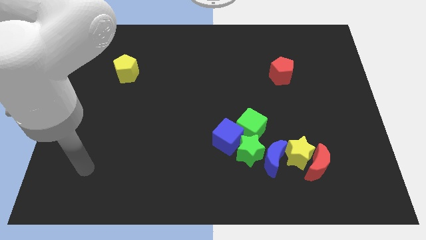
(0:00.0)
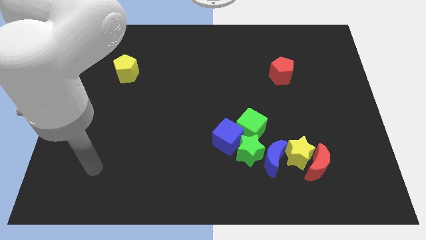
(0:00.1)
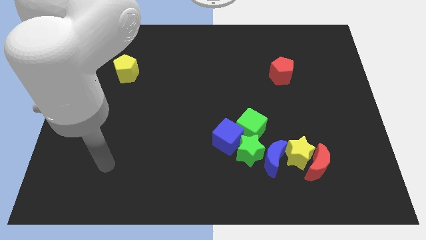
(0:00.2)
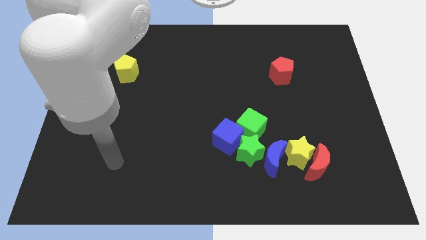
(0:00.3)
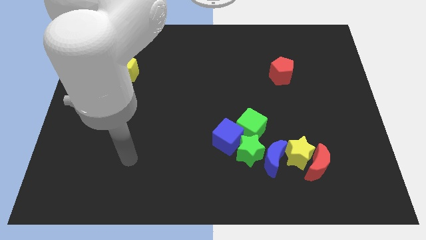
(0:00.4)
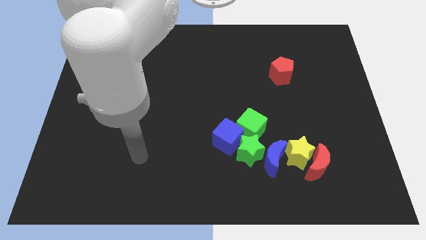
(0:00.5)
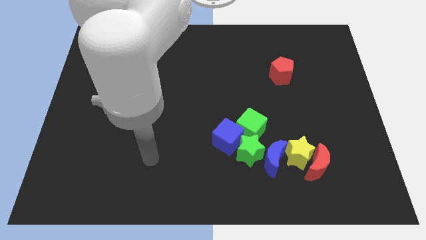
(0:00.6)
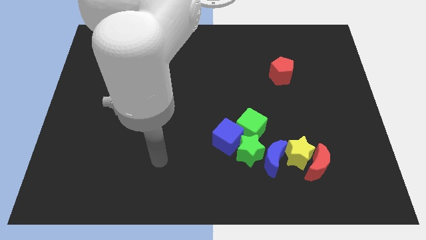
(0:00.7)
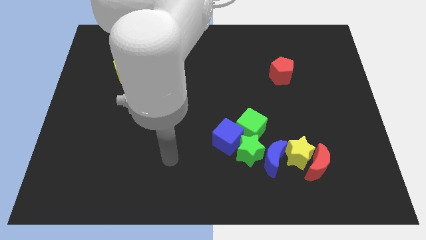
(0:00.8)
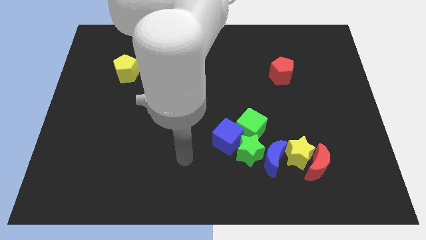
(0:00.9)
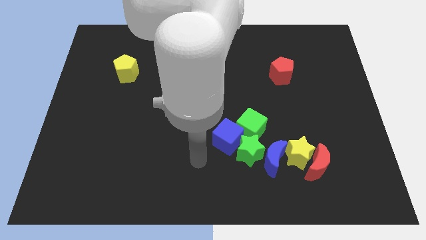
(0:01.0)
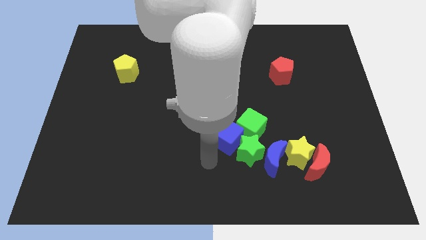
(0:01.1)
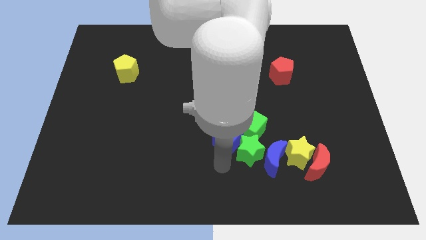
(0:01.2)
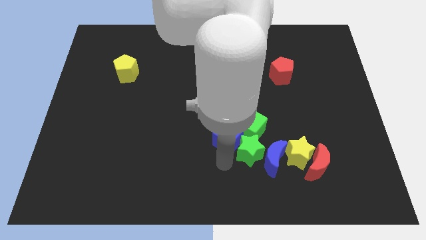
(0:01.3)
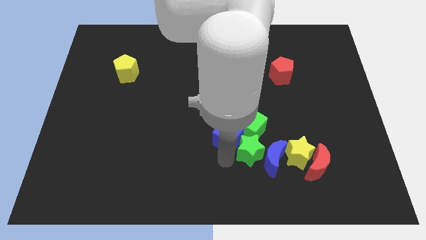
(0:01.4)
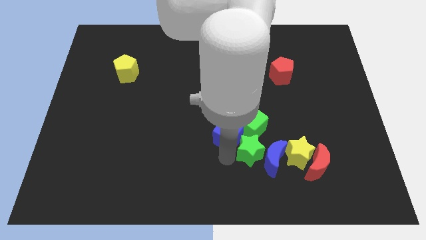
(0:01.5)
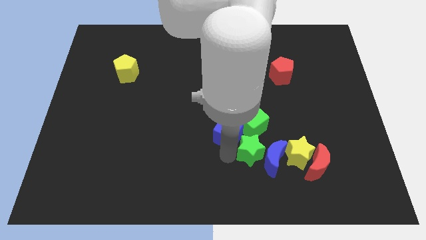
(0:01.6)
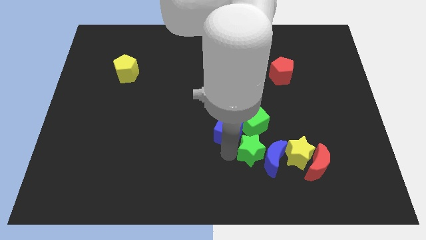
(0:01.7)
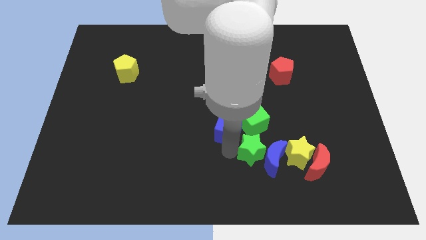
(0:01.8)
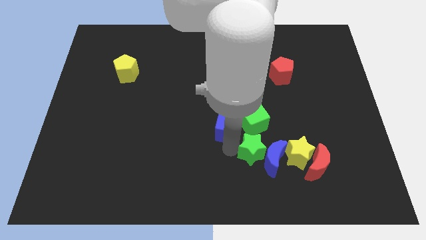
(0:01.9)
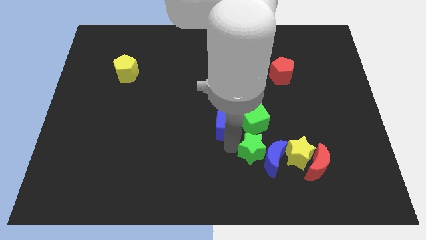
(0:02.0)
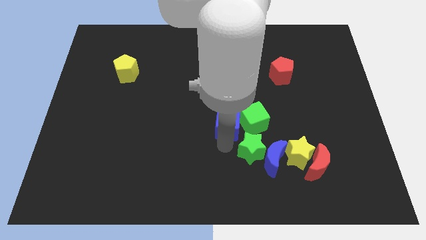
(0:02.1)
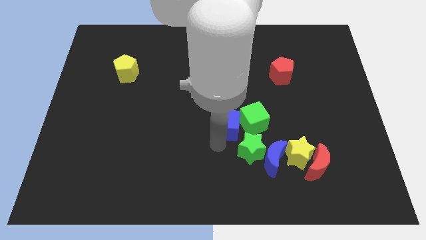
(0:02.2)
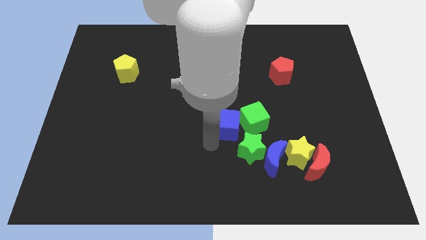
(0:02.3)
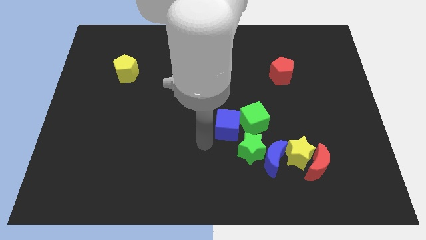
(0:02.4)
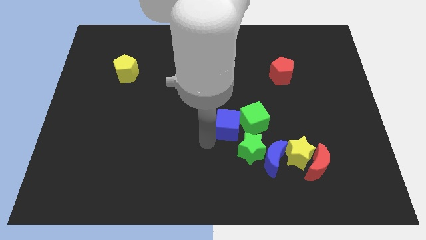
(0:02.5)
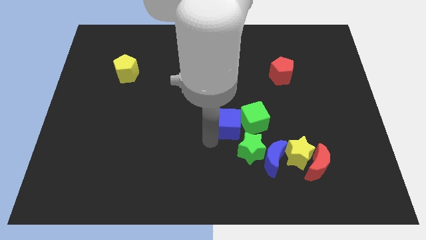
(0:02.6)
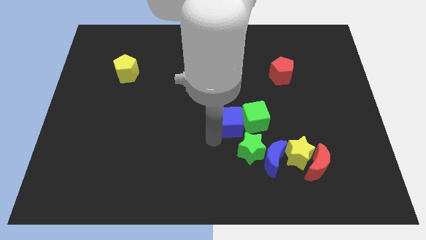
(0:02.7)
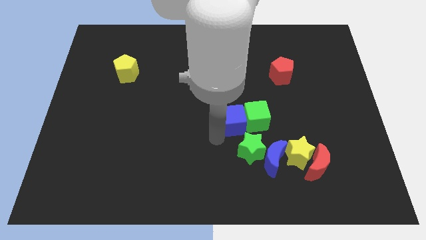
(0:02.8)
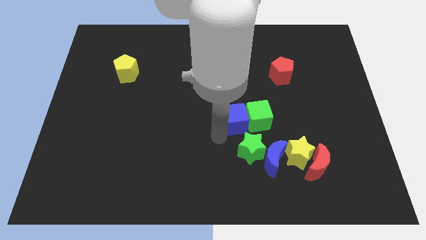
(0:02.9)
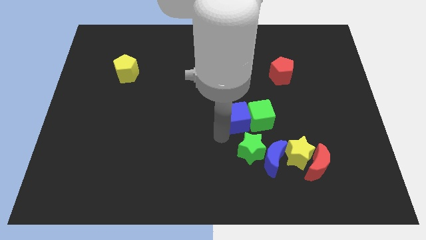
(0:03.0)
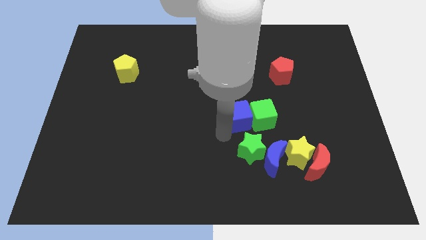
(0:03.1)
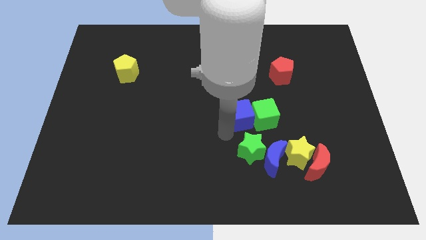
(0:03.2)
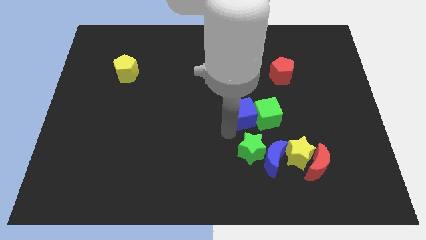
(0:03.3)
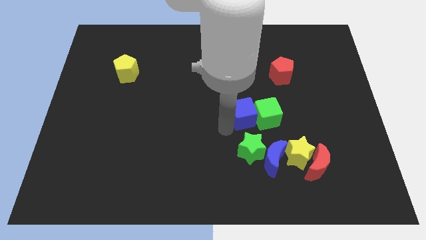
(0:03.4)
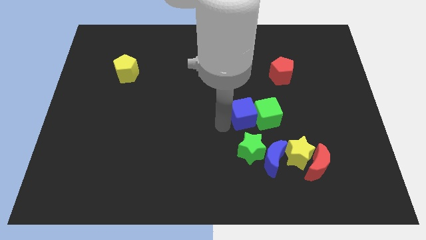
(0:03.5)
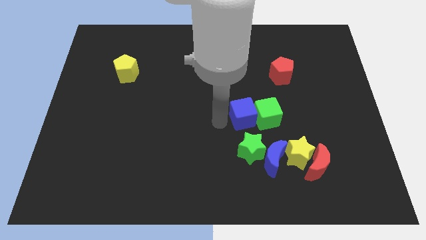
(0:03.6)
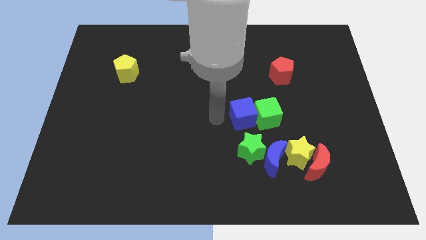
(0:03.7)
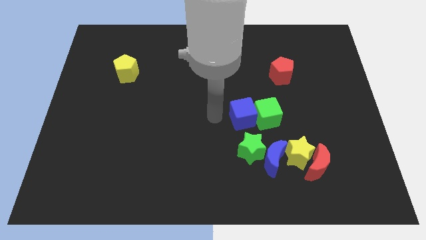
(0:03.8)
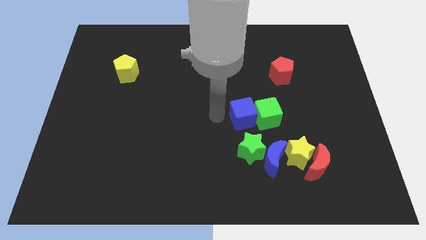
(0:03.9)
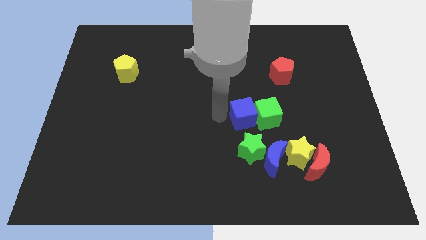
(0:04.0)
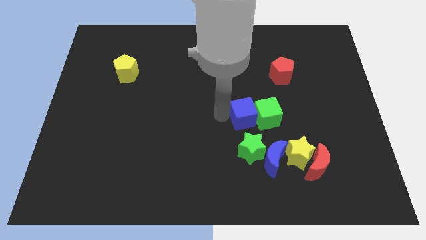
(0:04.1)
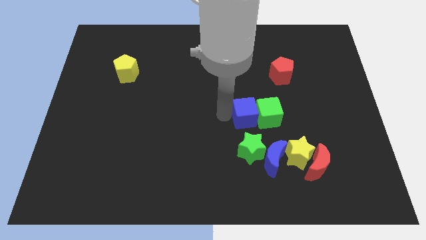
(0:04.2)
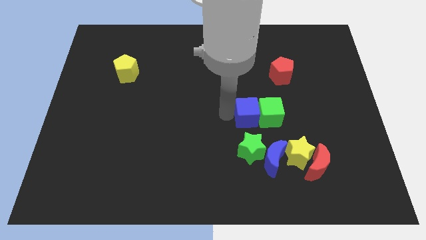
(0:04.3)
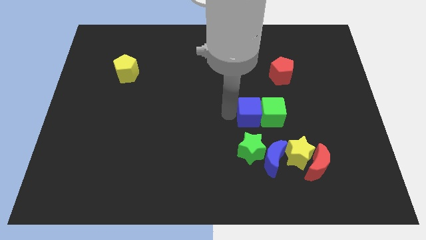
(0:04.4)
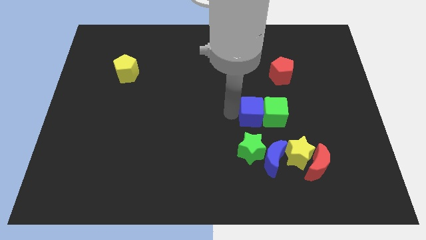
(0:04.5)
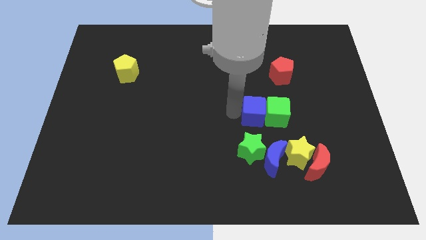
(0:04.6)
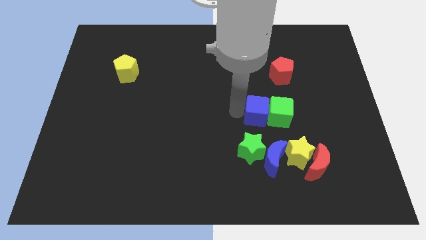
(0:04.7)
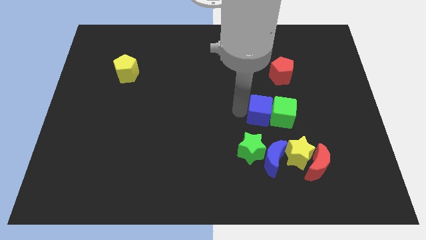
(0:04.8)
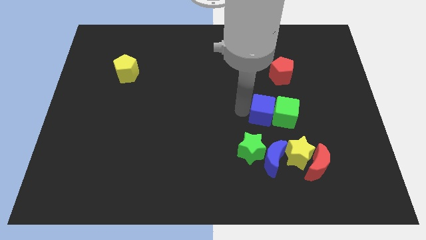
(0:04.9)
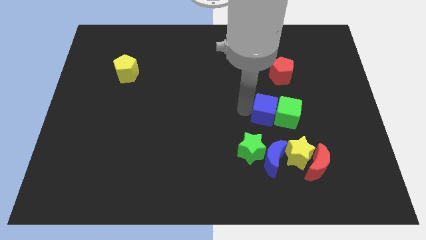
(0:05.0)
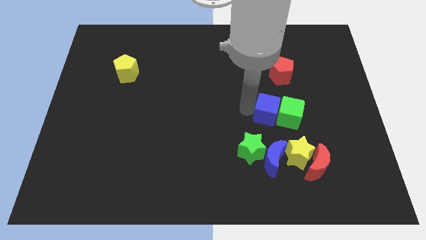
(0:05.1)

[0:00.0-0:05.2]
slide the blue cube somewhat to the right

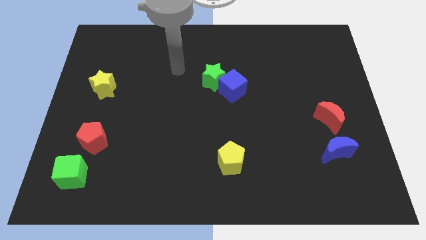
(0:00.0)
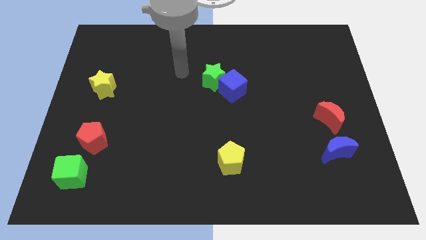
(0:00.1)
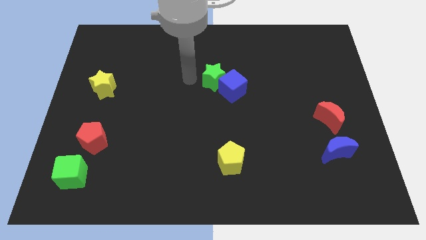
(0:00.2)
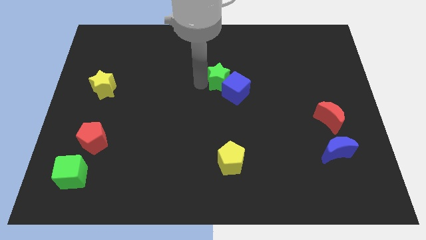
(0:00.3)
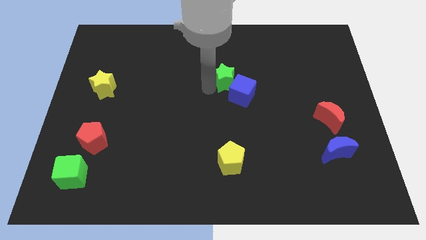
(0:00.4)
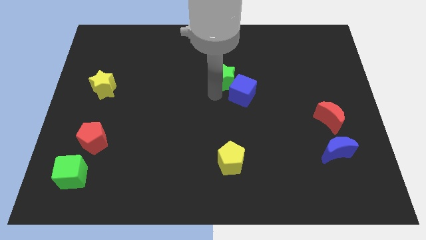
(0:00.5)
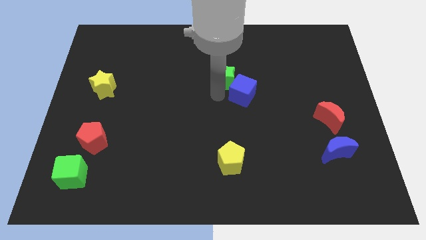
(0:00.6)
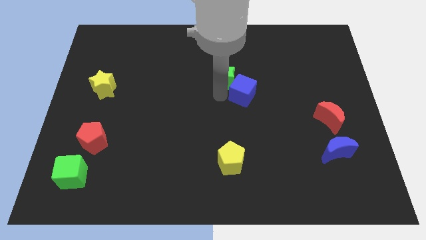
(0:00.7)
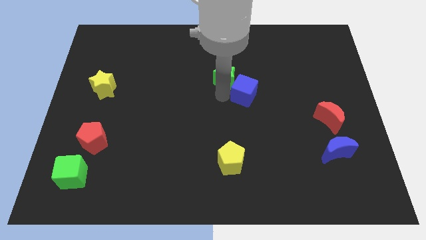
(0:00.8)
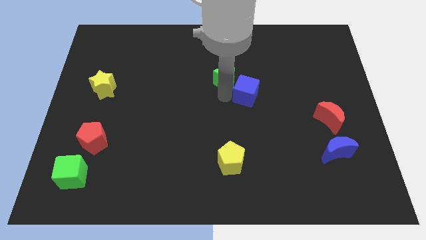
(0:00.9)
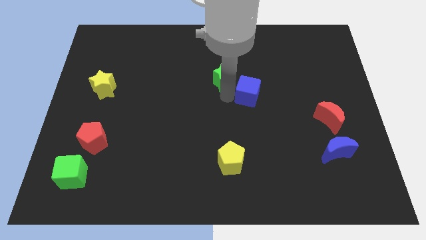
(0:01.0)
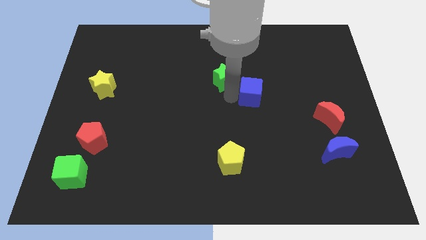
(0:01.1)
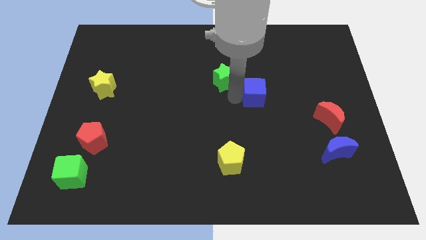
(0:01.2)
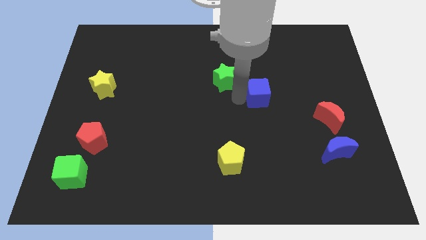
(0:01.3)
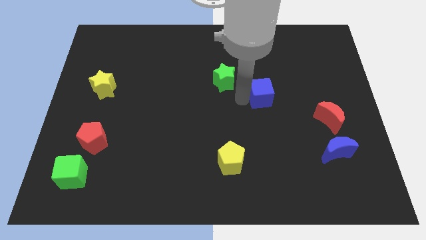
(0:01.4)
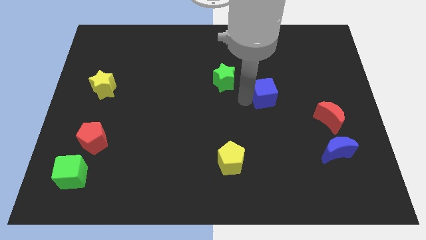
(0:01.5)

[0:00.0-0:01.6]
slightly push the blue cube to the right

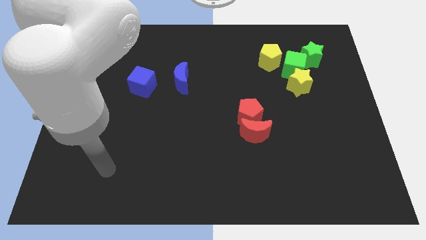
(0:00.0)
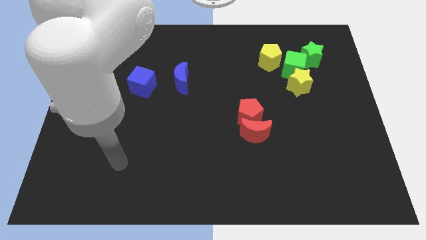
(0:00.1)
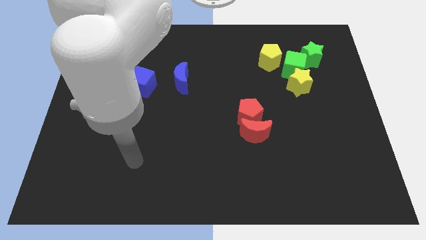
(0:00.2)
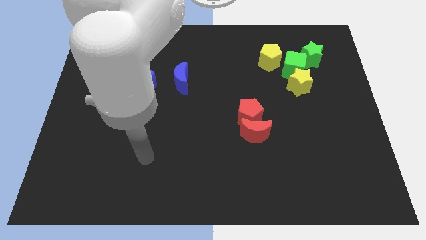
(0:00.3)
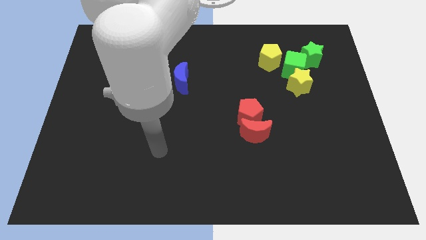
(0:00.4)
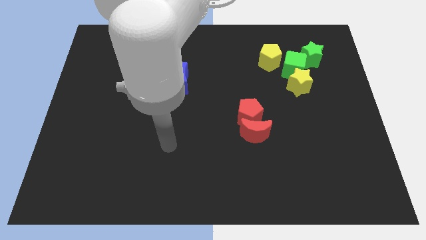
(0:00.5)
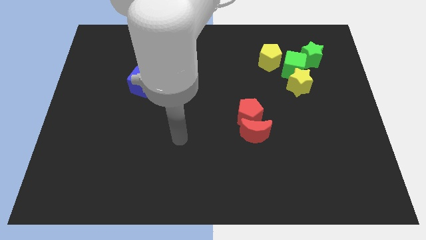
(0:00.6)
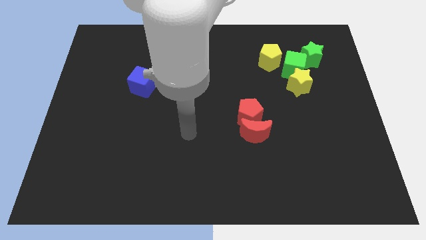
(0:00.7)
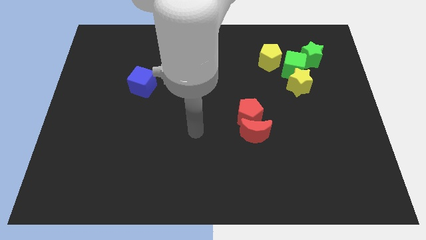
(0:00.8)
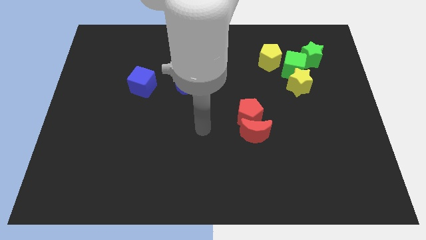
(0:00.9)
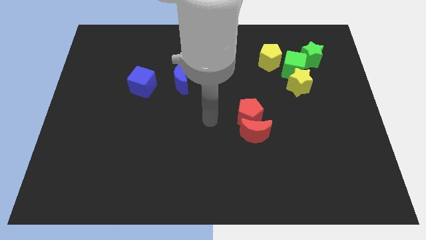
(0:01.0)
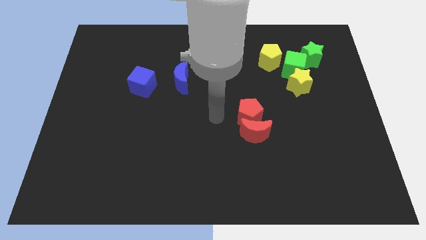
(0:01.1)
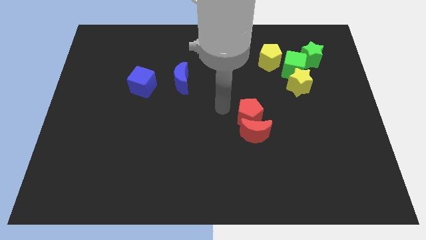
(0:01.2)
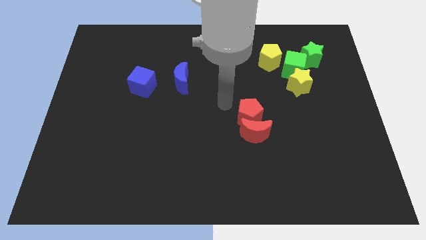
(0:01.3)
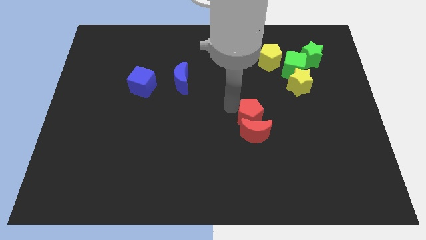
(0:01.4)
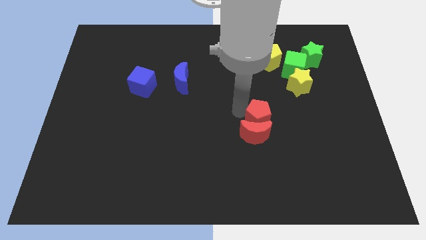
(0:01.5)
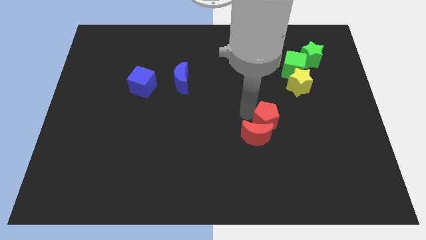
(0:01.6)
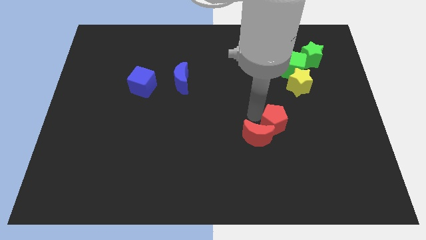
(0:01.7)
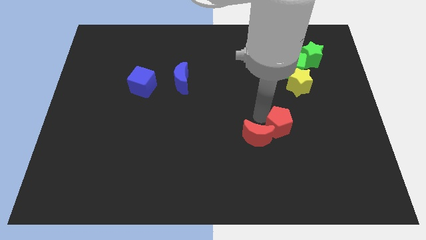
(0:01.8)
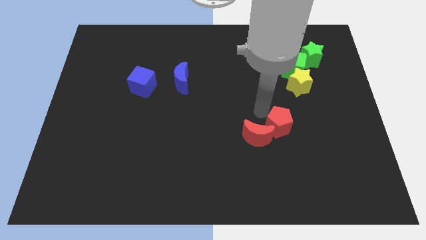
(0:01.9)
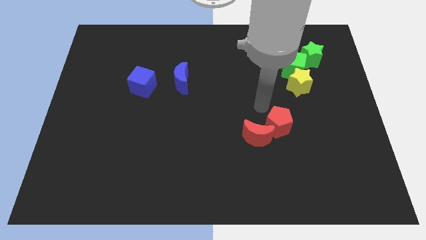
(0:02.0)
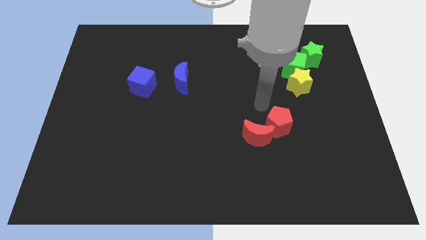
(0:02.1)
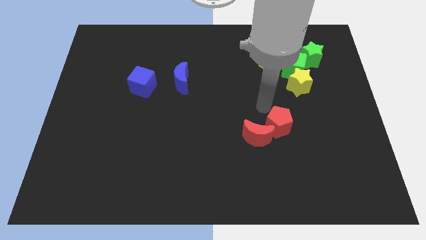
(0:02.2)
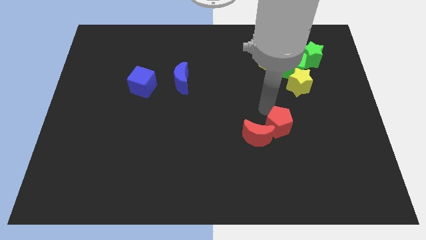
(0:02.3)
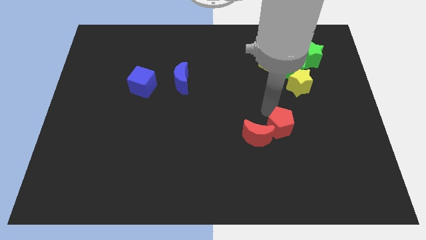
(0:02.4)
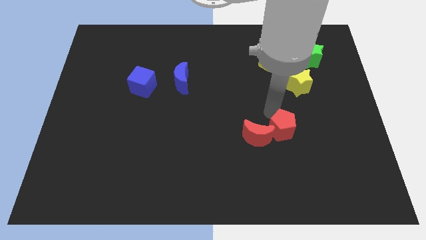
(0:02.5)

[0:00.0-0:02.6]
push the red pentagon a little bit downwards and to the right
